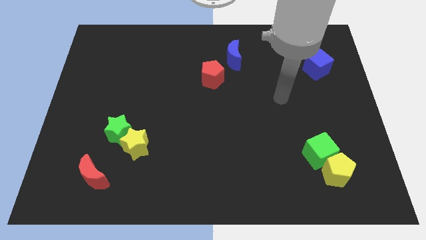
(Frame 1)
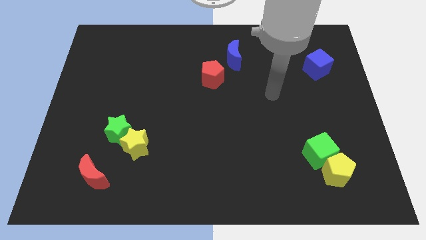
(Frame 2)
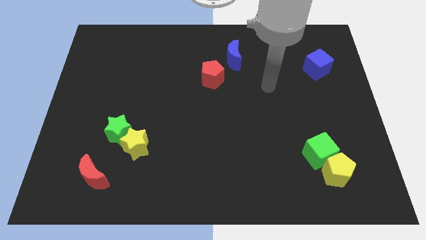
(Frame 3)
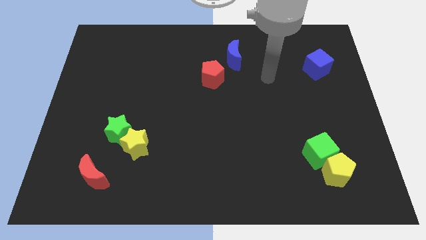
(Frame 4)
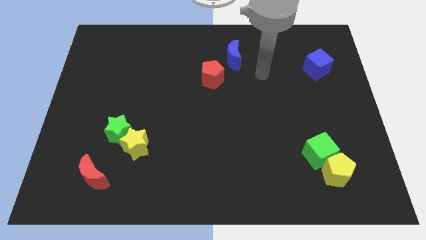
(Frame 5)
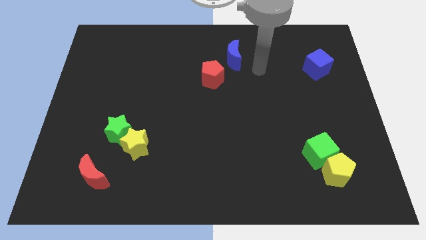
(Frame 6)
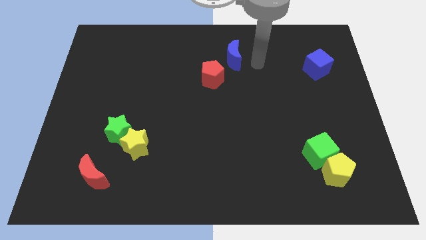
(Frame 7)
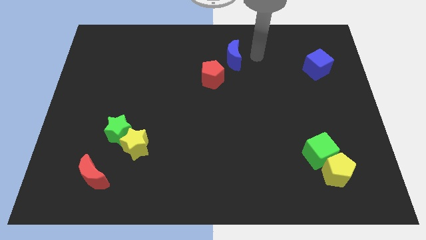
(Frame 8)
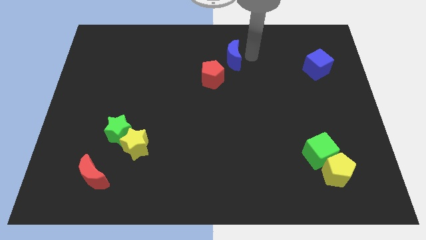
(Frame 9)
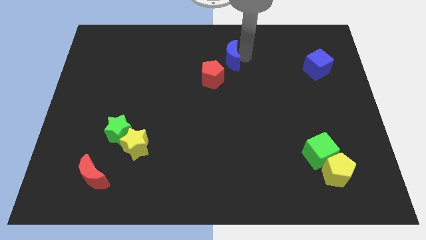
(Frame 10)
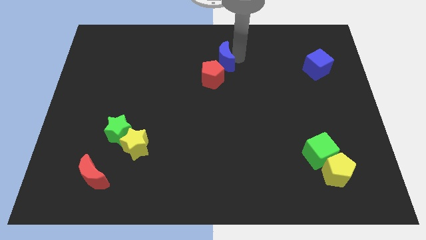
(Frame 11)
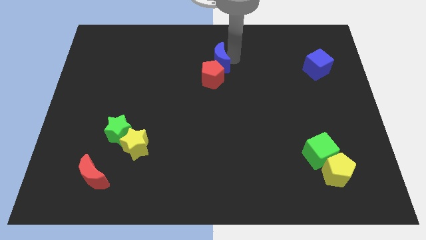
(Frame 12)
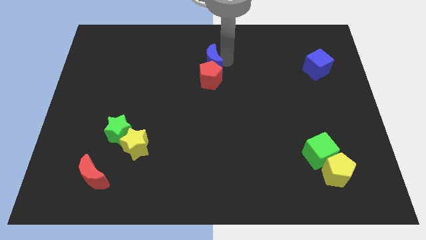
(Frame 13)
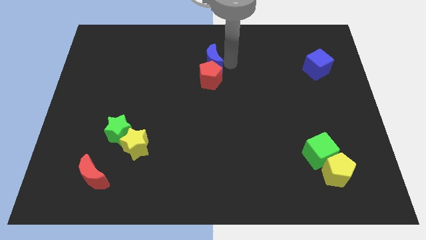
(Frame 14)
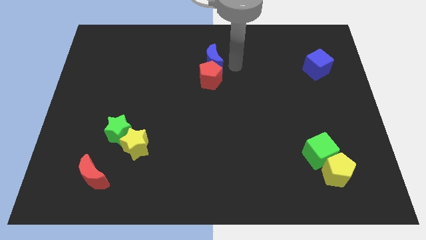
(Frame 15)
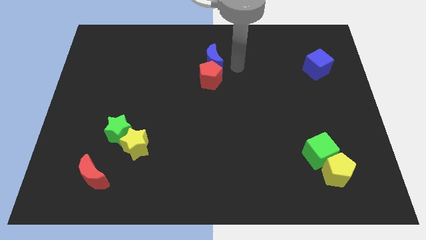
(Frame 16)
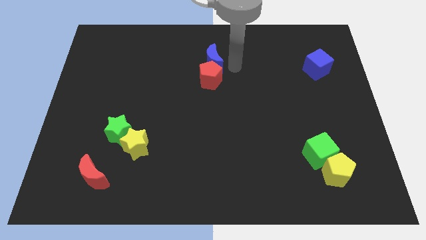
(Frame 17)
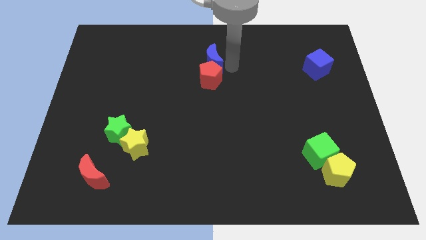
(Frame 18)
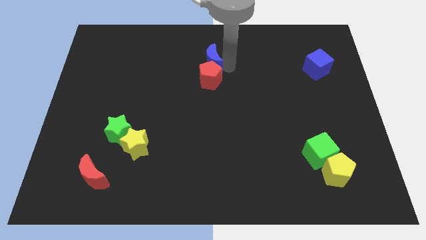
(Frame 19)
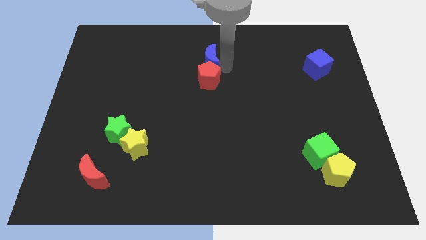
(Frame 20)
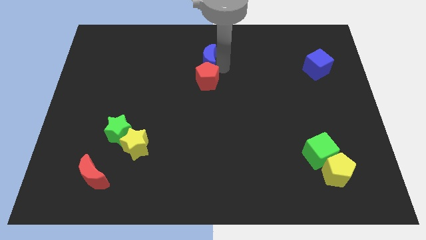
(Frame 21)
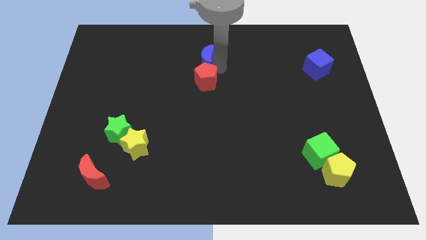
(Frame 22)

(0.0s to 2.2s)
push the blue moon a little bit to the left

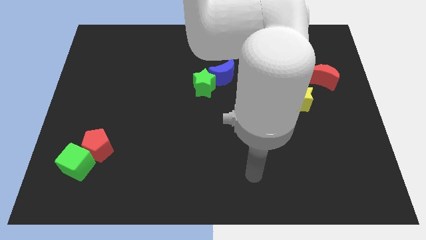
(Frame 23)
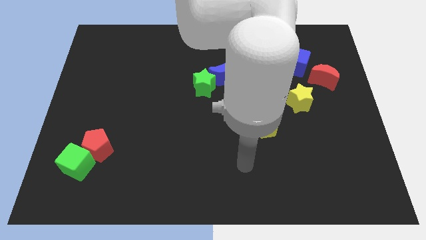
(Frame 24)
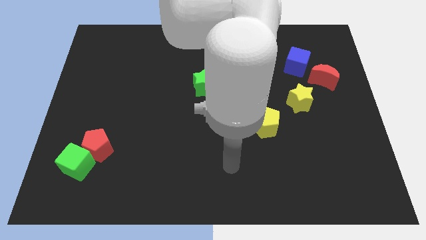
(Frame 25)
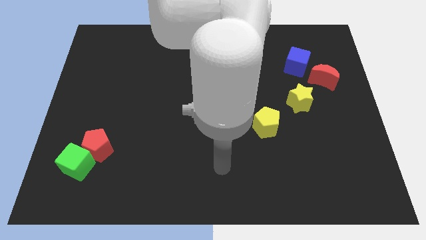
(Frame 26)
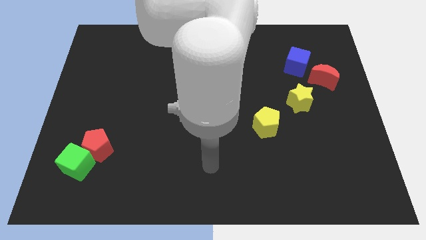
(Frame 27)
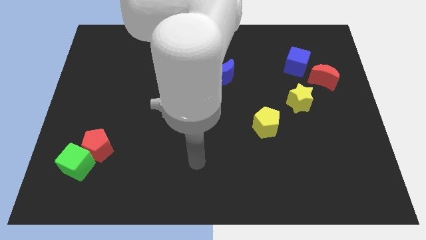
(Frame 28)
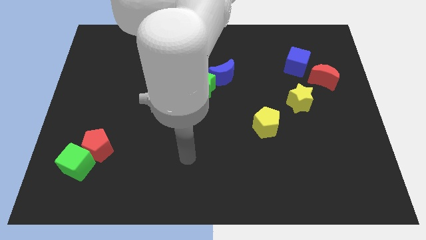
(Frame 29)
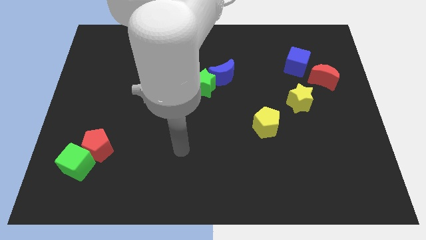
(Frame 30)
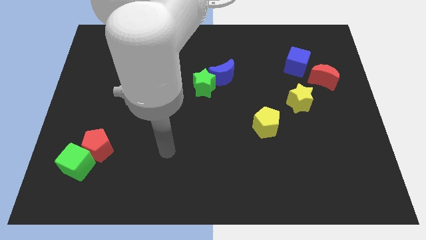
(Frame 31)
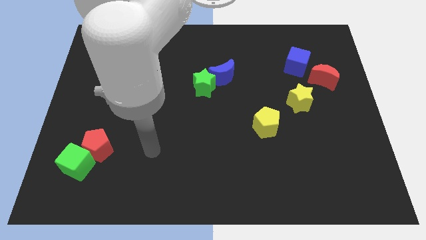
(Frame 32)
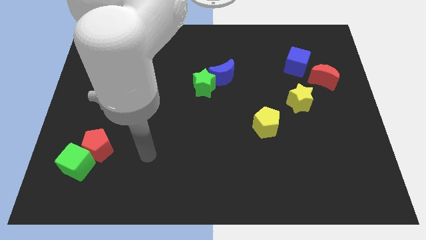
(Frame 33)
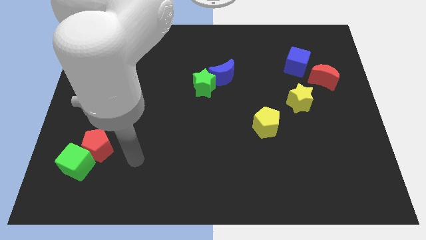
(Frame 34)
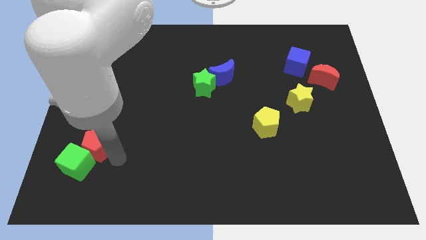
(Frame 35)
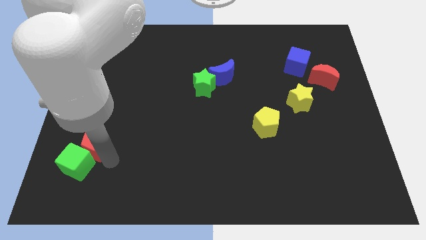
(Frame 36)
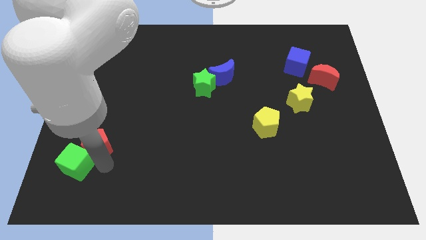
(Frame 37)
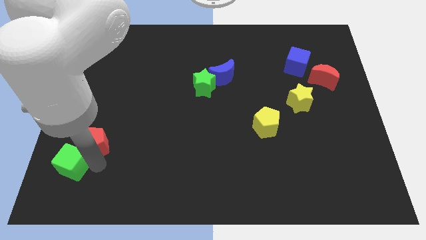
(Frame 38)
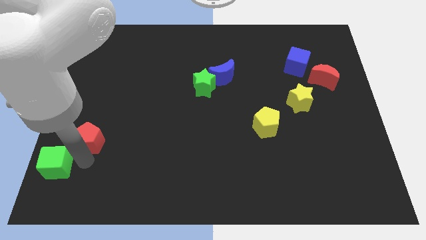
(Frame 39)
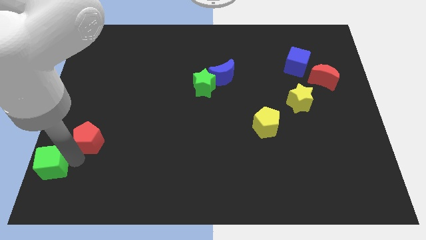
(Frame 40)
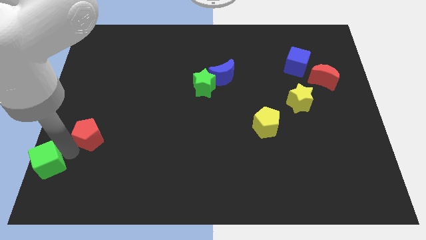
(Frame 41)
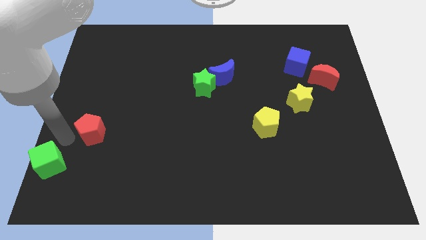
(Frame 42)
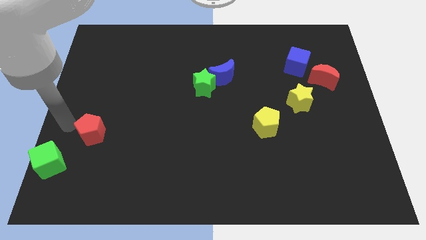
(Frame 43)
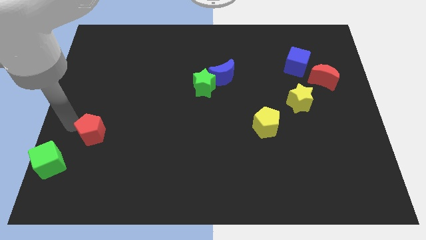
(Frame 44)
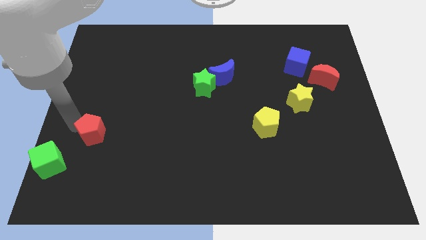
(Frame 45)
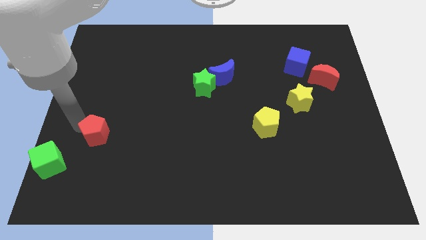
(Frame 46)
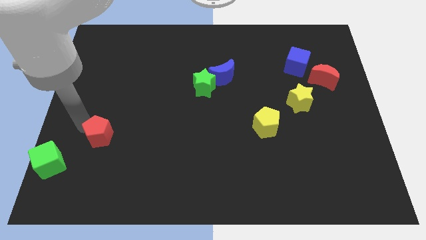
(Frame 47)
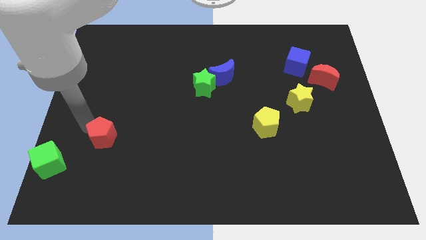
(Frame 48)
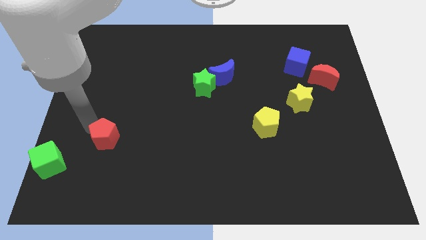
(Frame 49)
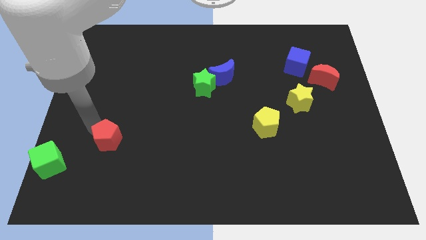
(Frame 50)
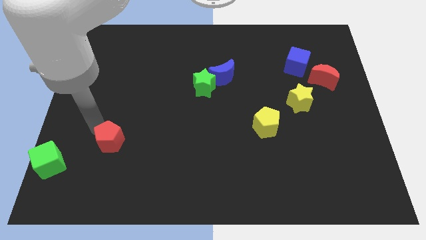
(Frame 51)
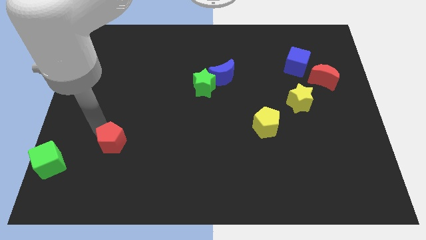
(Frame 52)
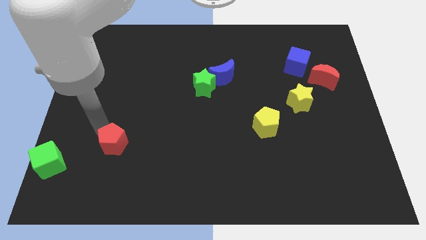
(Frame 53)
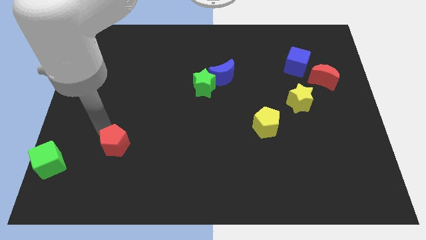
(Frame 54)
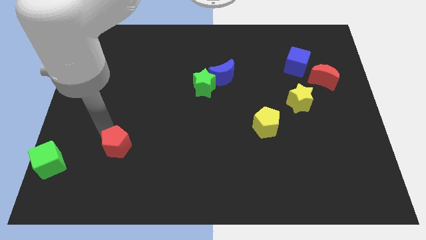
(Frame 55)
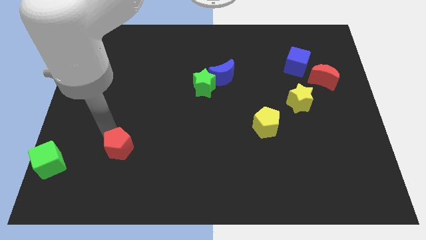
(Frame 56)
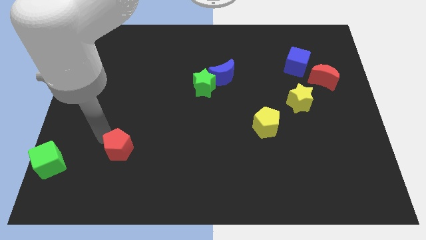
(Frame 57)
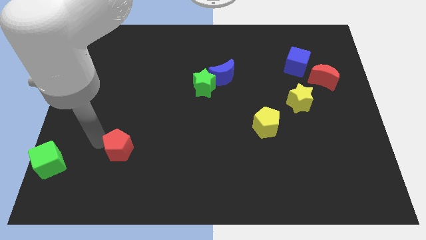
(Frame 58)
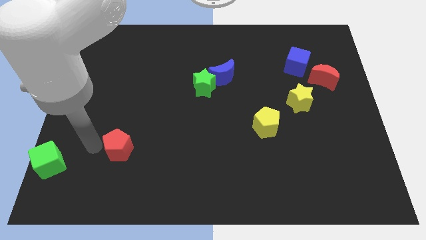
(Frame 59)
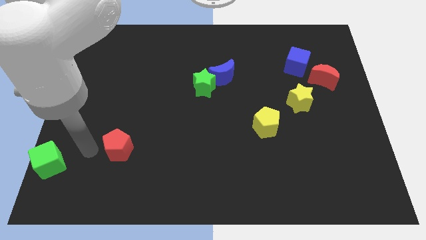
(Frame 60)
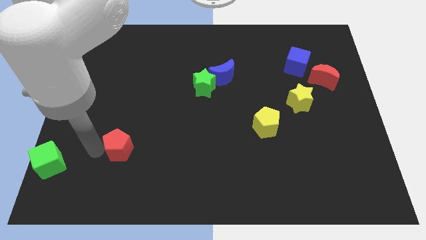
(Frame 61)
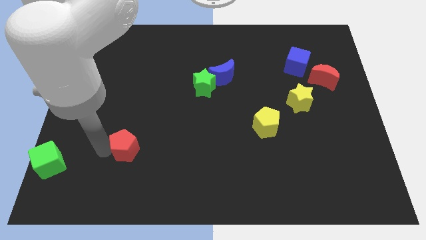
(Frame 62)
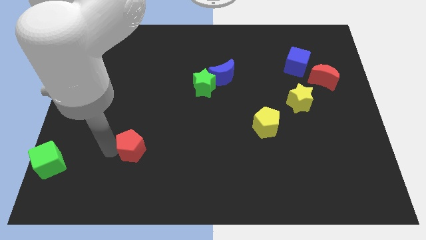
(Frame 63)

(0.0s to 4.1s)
slide the red pentagon to the right a little

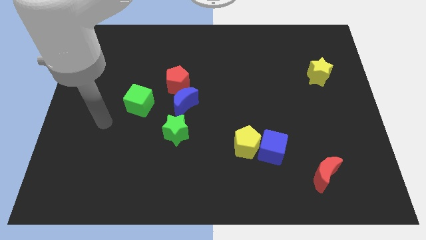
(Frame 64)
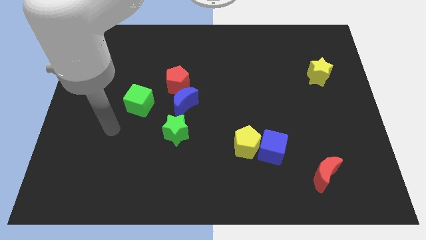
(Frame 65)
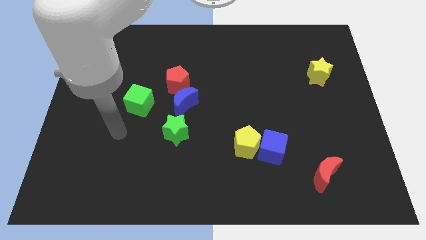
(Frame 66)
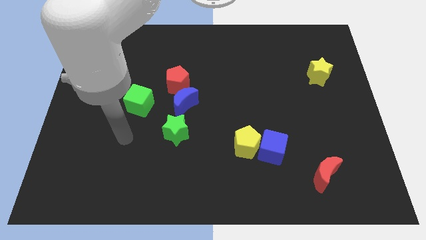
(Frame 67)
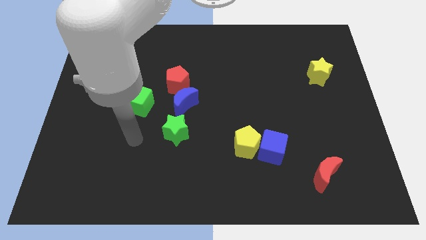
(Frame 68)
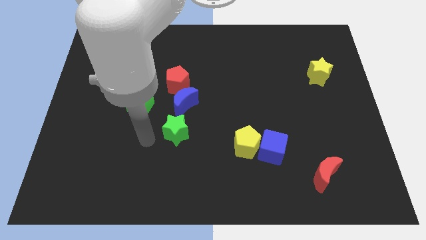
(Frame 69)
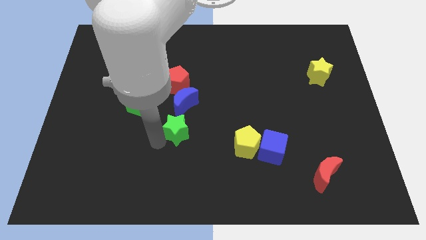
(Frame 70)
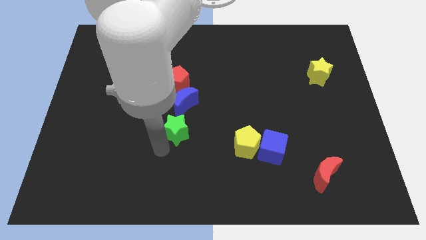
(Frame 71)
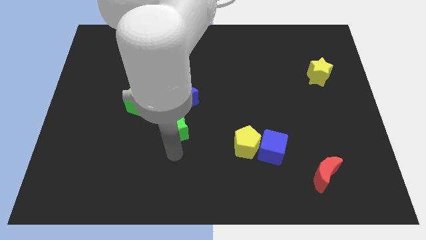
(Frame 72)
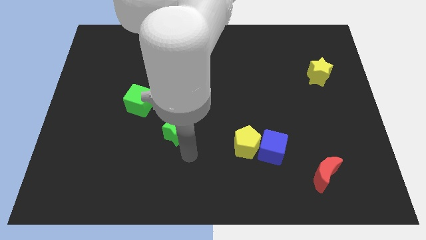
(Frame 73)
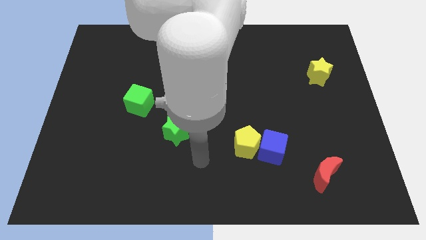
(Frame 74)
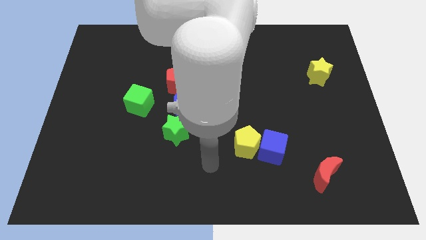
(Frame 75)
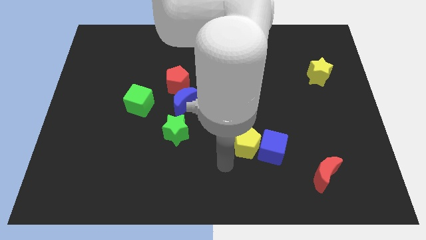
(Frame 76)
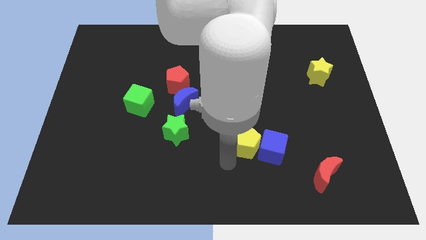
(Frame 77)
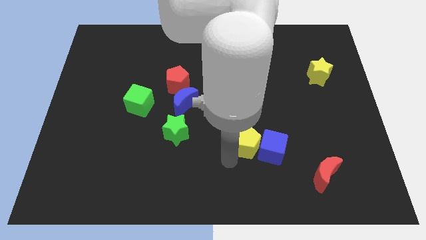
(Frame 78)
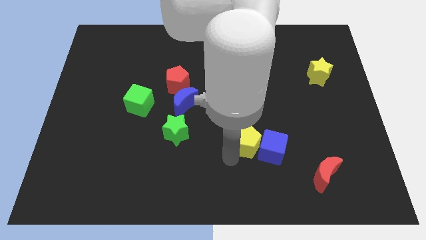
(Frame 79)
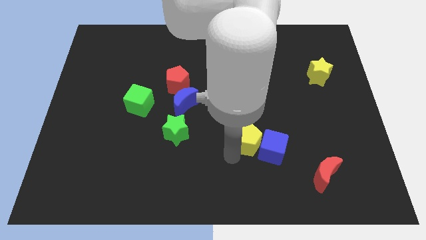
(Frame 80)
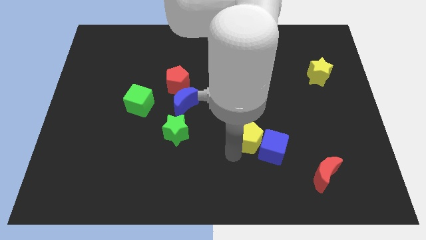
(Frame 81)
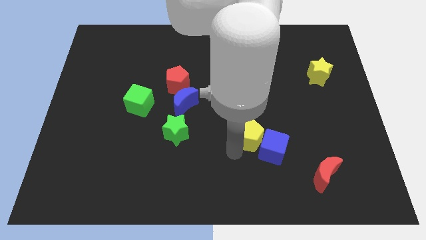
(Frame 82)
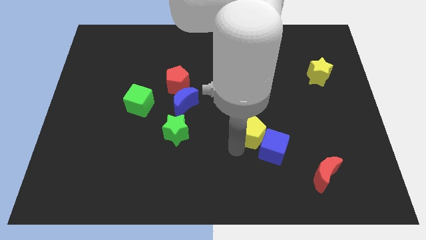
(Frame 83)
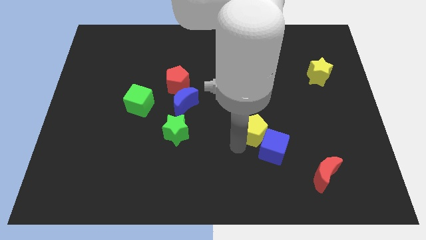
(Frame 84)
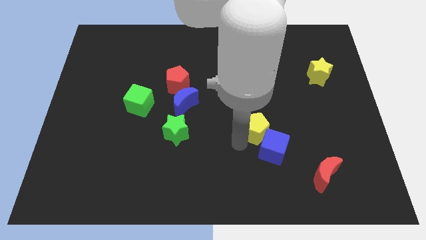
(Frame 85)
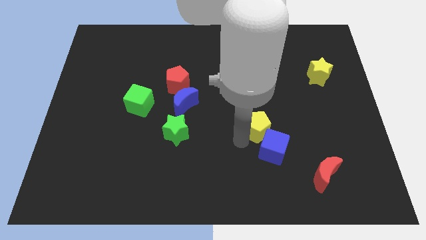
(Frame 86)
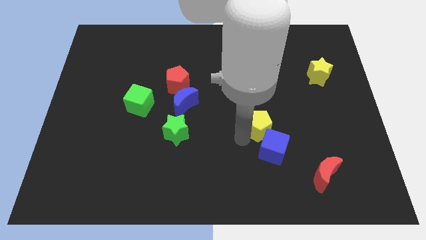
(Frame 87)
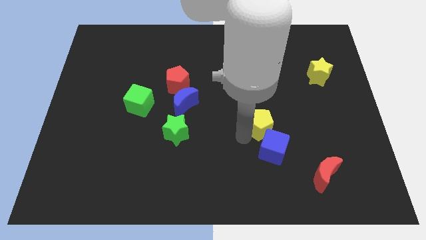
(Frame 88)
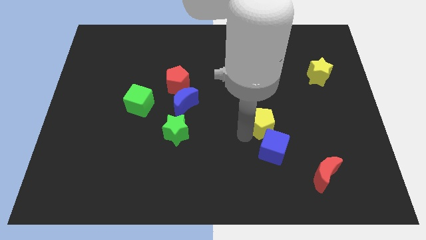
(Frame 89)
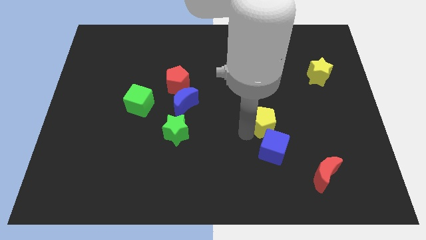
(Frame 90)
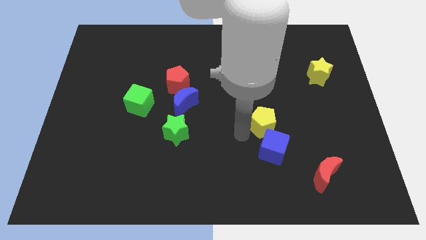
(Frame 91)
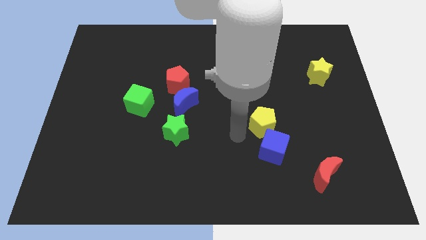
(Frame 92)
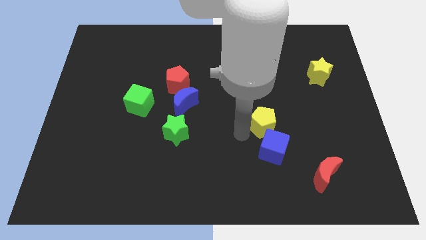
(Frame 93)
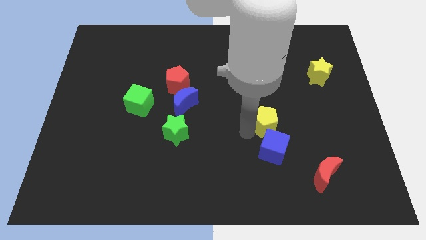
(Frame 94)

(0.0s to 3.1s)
move the yellow pentagon upwards and then to the right a bit
